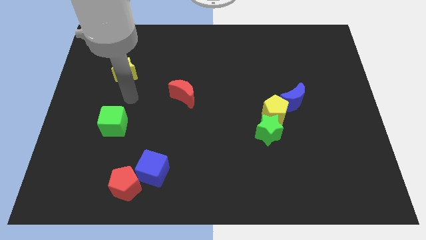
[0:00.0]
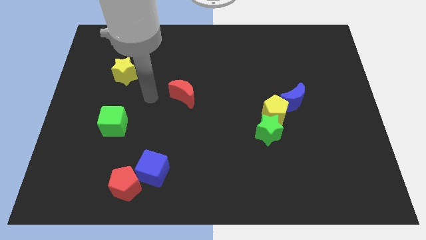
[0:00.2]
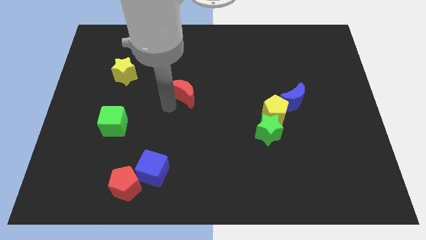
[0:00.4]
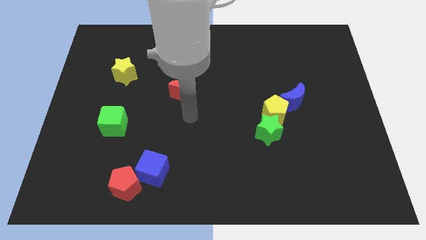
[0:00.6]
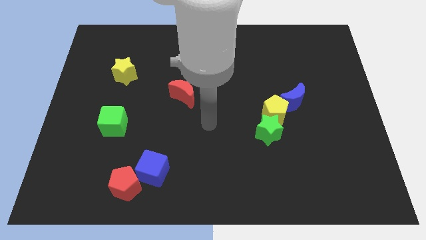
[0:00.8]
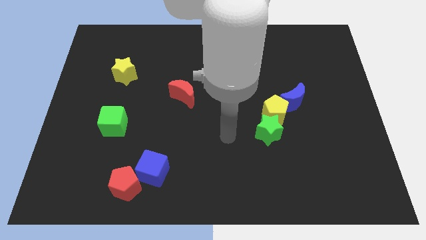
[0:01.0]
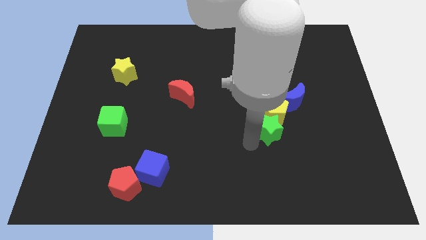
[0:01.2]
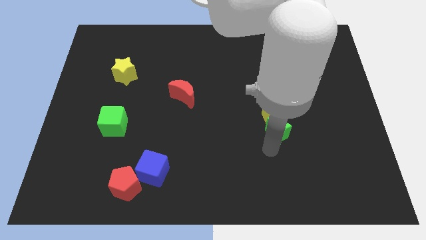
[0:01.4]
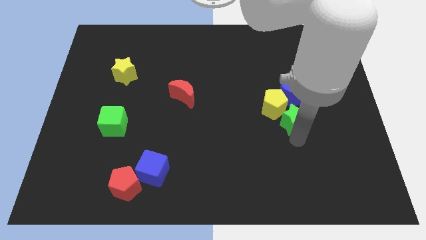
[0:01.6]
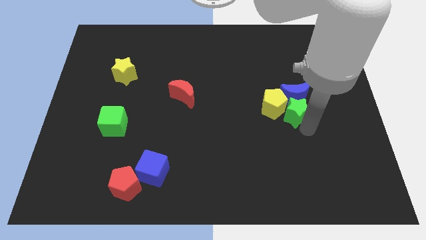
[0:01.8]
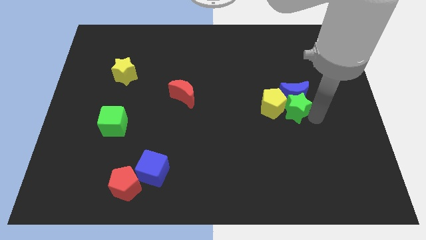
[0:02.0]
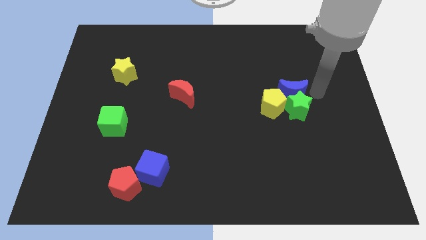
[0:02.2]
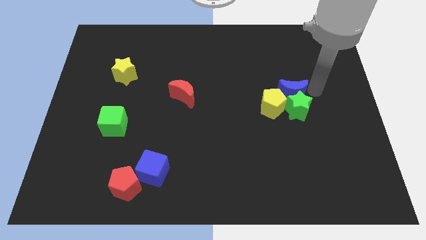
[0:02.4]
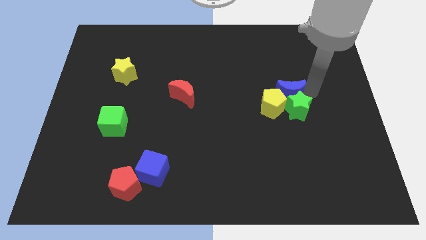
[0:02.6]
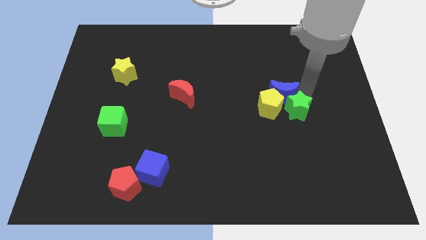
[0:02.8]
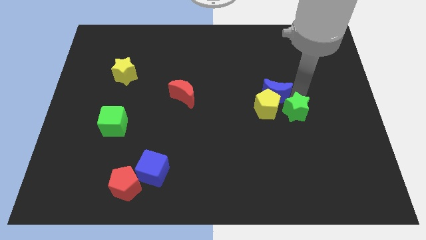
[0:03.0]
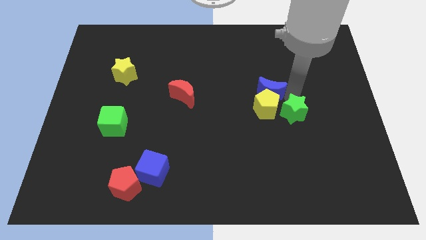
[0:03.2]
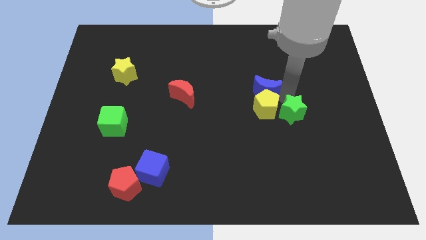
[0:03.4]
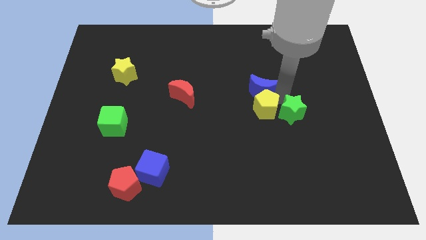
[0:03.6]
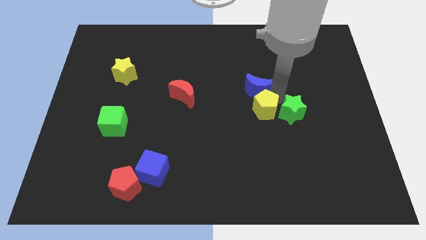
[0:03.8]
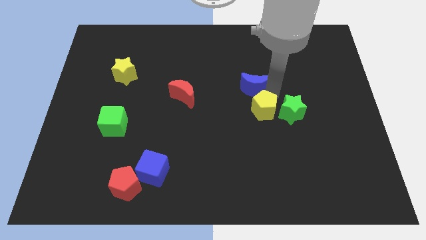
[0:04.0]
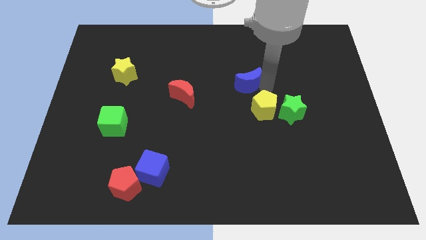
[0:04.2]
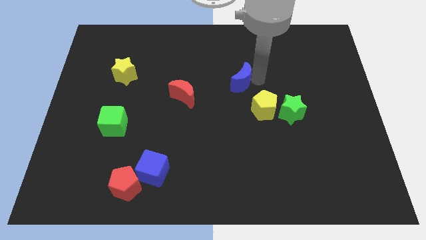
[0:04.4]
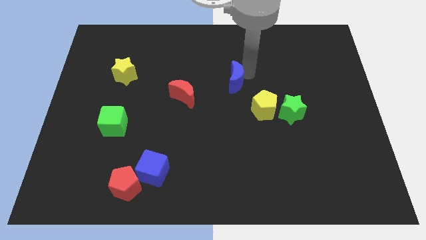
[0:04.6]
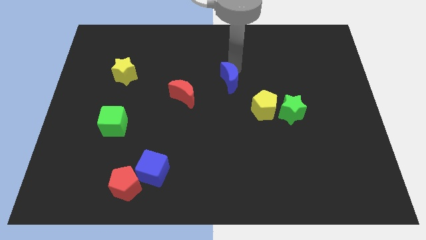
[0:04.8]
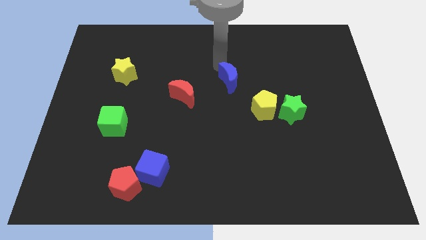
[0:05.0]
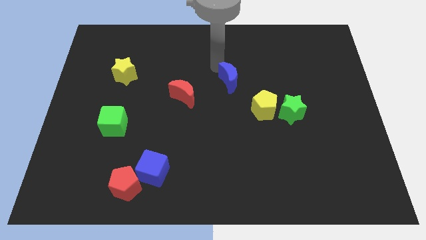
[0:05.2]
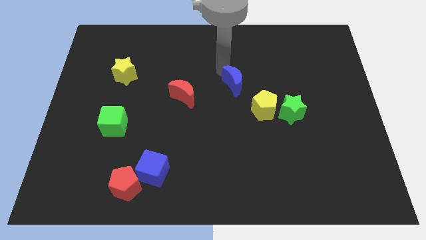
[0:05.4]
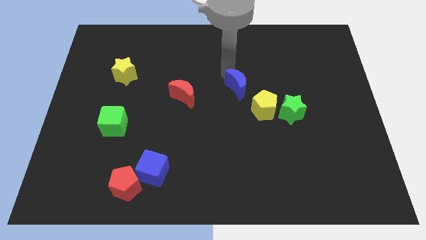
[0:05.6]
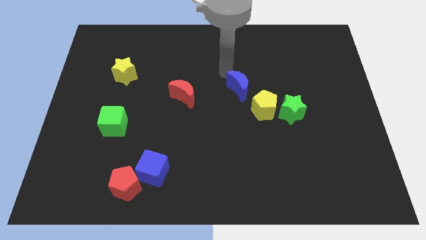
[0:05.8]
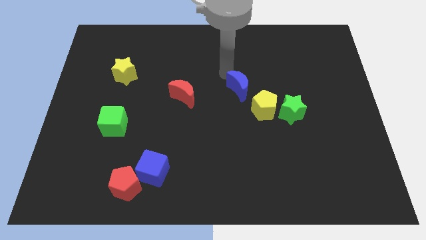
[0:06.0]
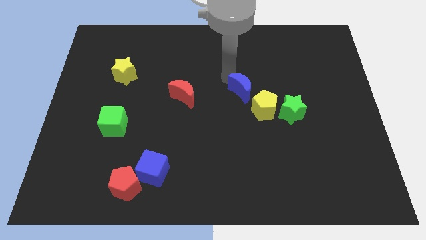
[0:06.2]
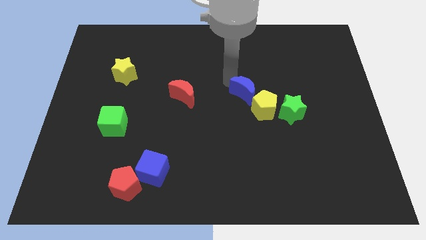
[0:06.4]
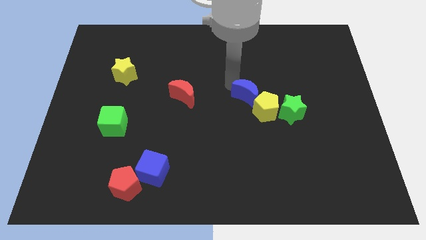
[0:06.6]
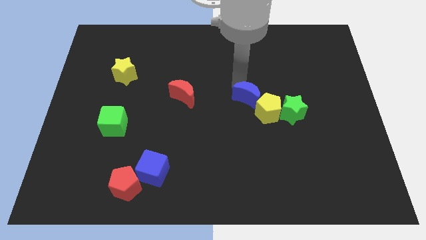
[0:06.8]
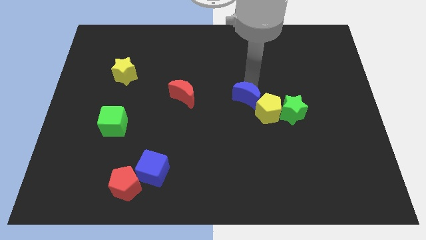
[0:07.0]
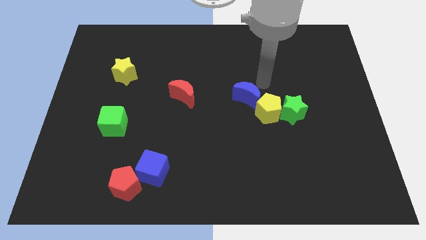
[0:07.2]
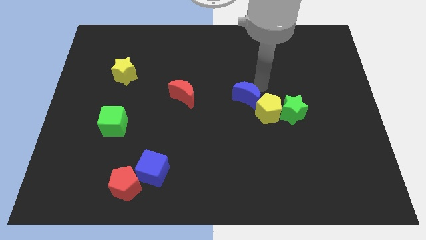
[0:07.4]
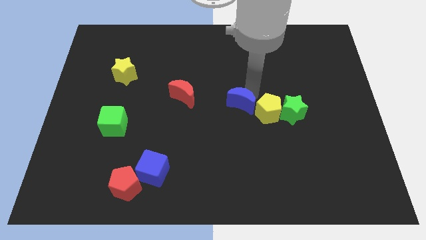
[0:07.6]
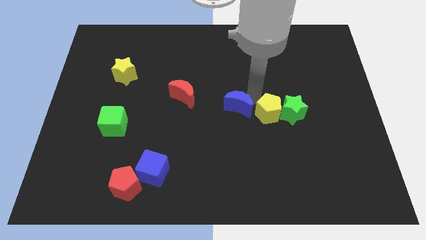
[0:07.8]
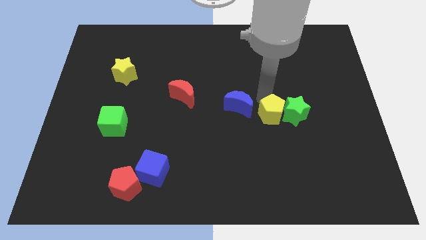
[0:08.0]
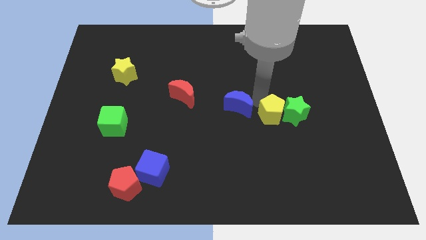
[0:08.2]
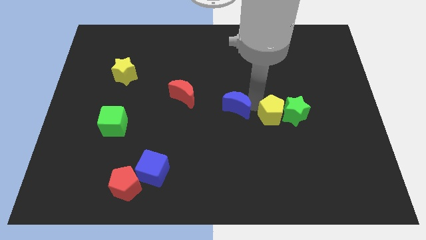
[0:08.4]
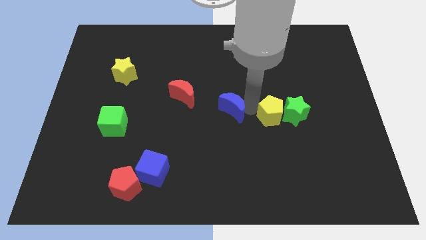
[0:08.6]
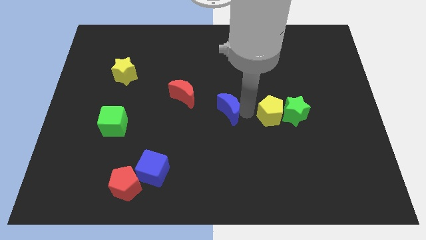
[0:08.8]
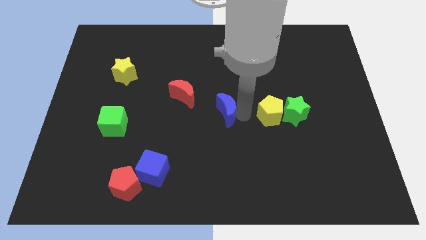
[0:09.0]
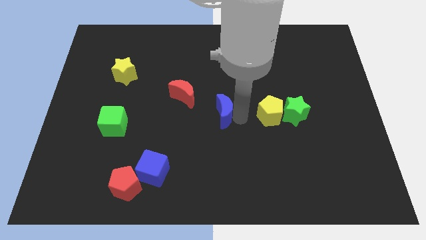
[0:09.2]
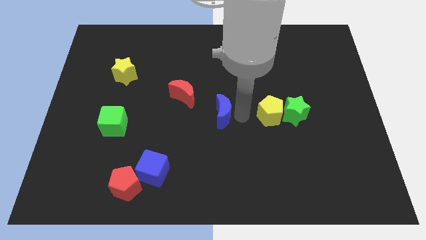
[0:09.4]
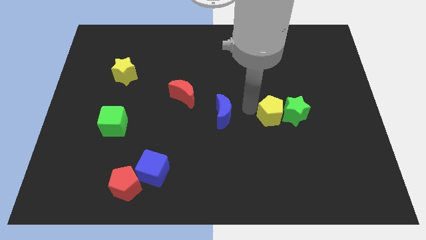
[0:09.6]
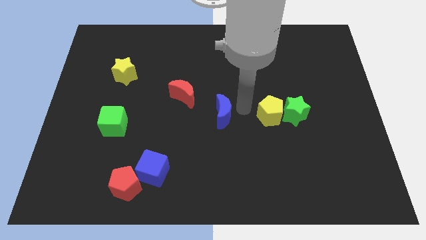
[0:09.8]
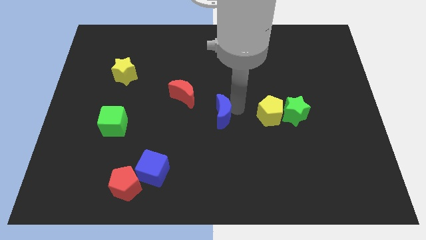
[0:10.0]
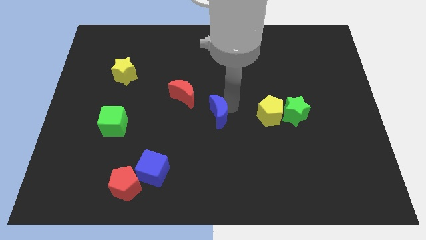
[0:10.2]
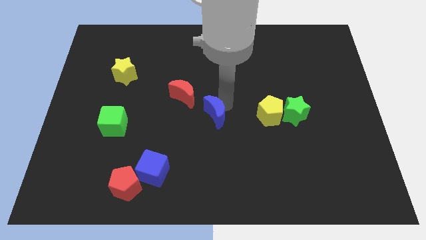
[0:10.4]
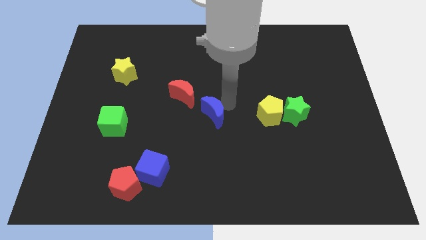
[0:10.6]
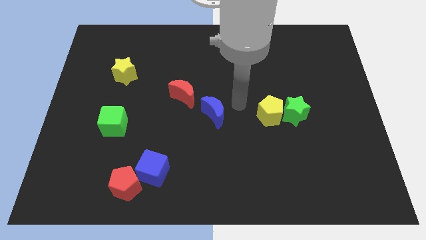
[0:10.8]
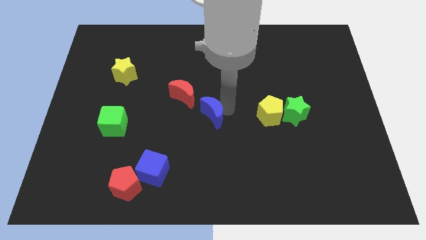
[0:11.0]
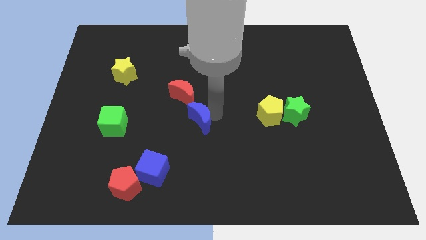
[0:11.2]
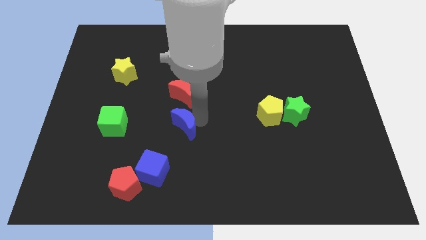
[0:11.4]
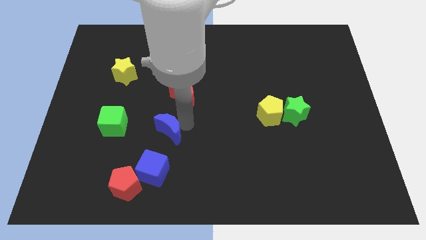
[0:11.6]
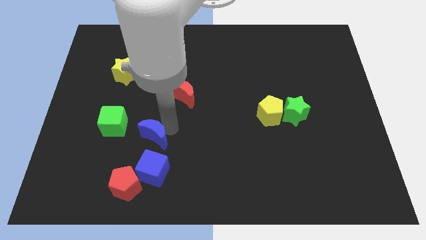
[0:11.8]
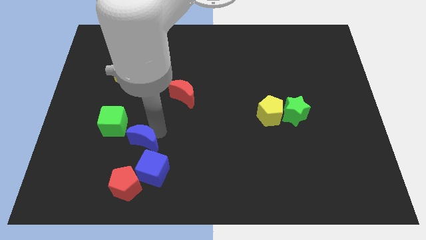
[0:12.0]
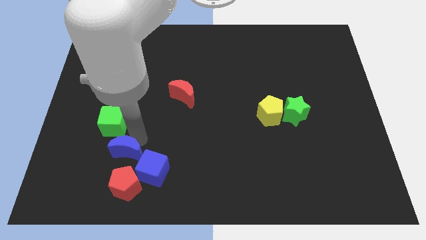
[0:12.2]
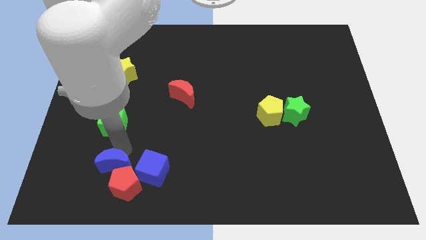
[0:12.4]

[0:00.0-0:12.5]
move the blue moon to the red pentagon

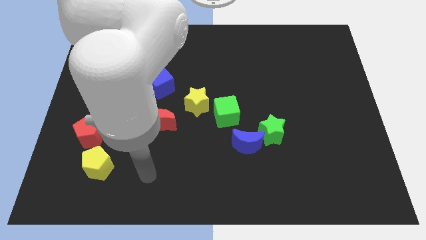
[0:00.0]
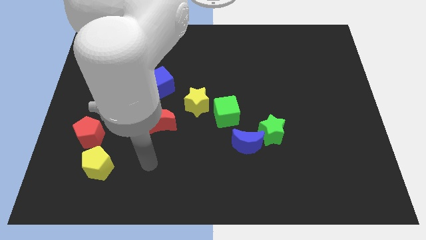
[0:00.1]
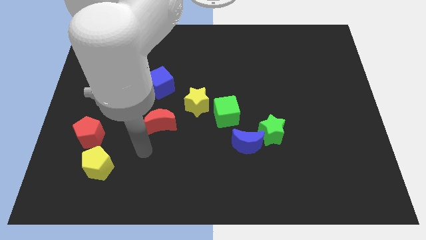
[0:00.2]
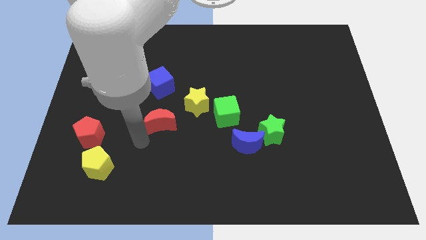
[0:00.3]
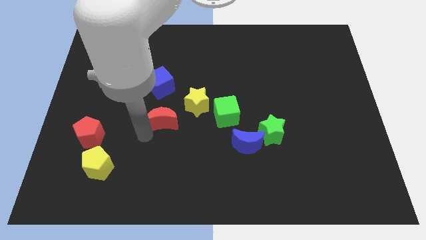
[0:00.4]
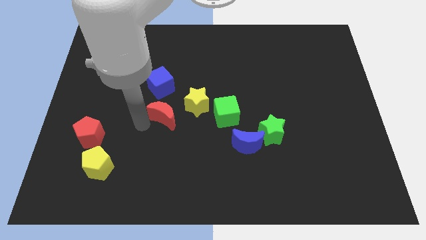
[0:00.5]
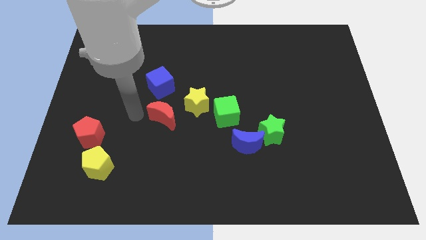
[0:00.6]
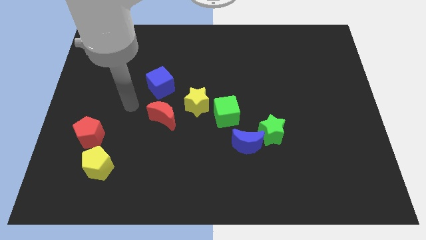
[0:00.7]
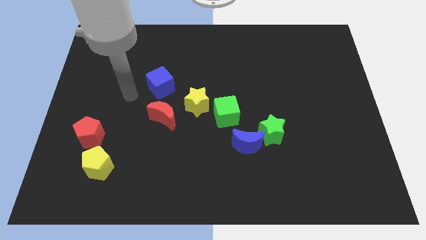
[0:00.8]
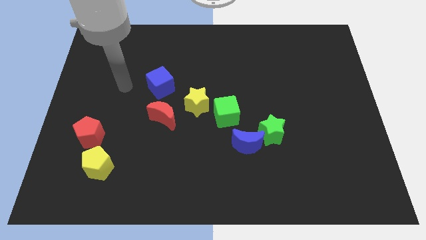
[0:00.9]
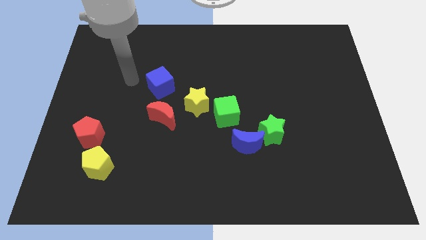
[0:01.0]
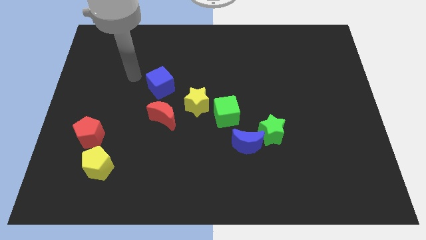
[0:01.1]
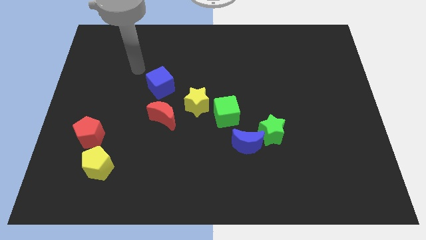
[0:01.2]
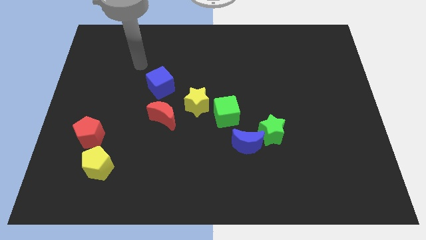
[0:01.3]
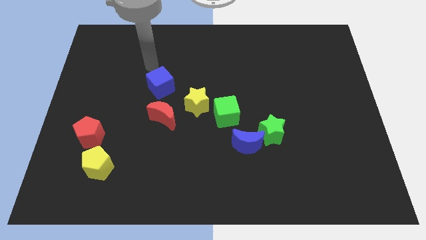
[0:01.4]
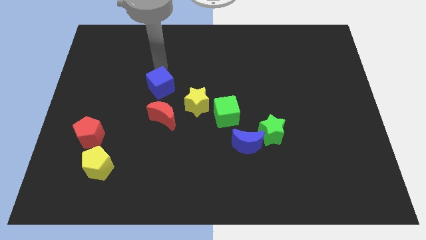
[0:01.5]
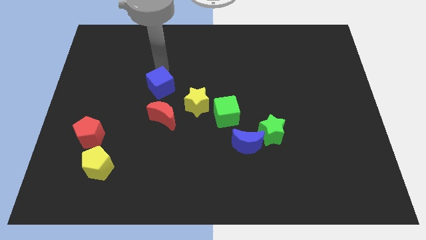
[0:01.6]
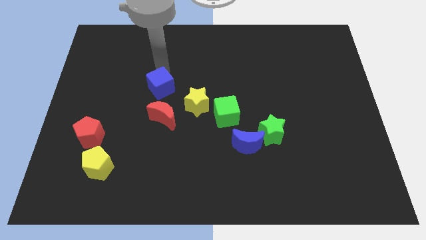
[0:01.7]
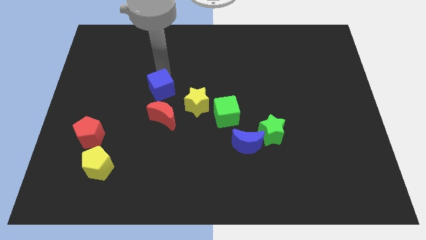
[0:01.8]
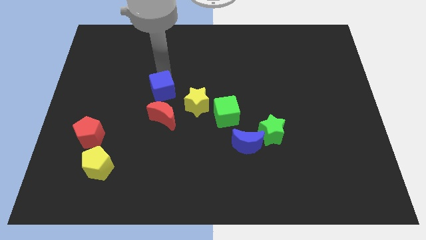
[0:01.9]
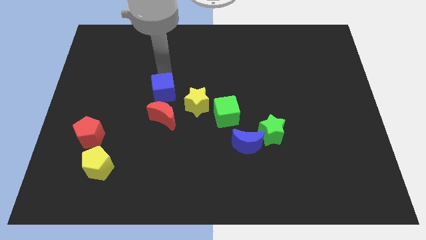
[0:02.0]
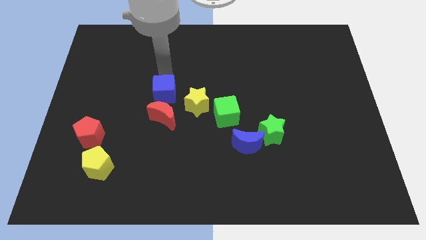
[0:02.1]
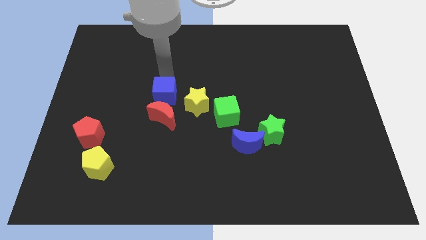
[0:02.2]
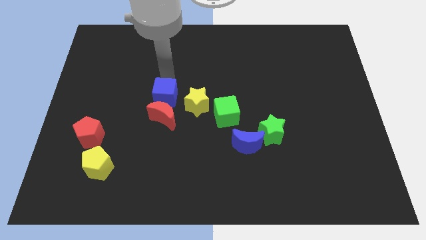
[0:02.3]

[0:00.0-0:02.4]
put the blue cube next to the red moon
